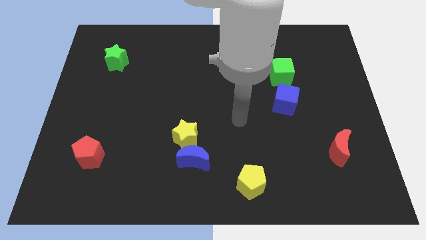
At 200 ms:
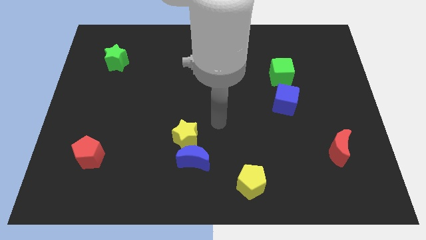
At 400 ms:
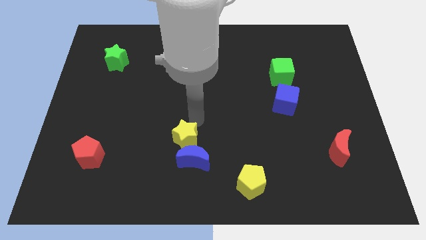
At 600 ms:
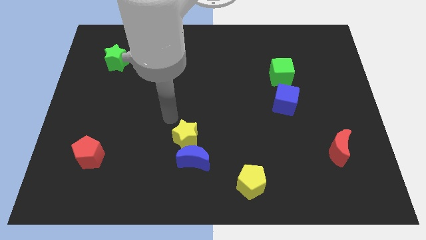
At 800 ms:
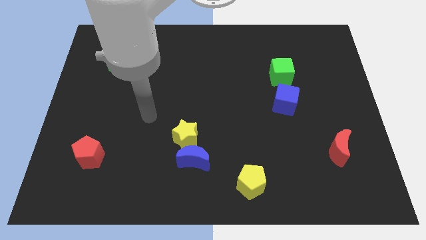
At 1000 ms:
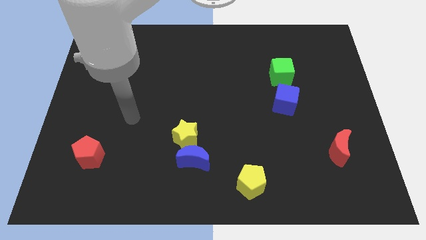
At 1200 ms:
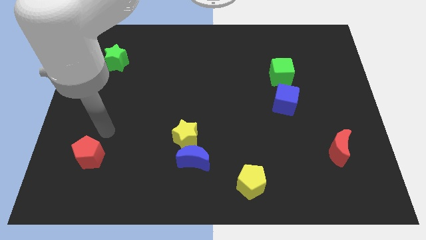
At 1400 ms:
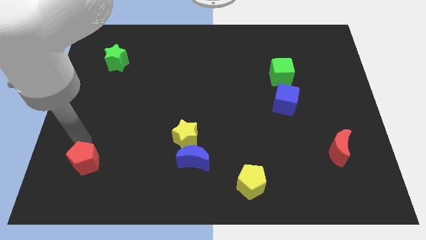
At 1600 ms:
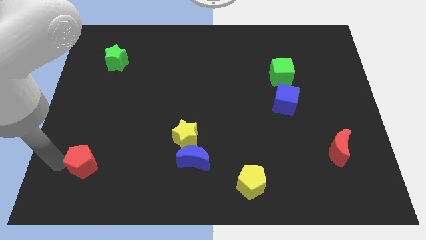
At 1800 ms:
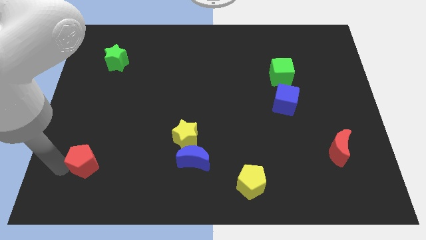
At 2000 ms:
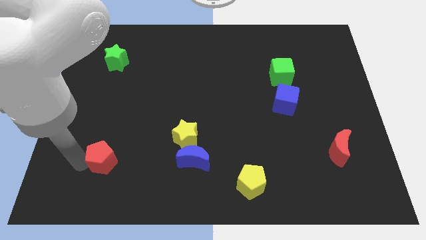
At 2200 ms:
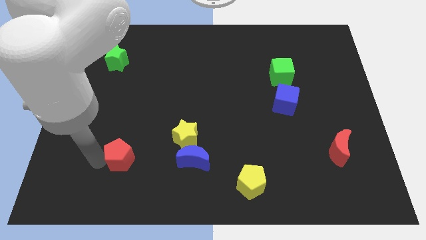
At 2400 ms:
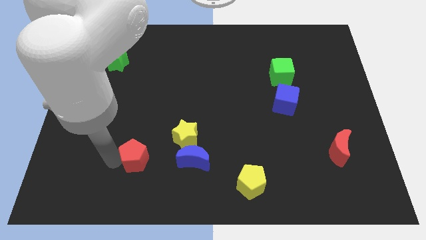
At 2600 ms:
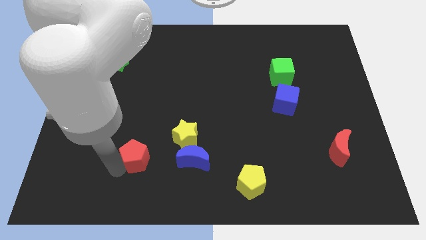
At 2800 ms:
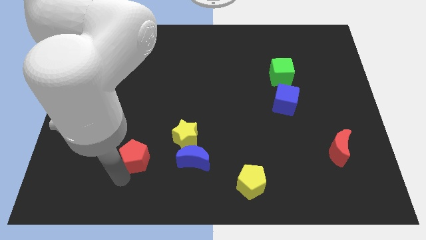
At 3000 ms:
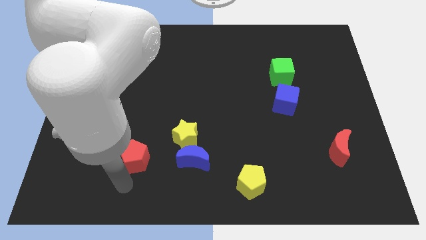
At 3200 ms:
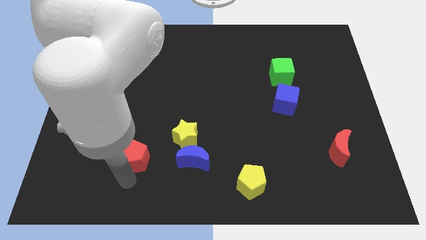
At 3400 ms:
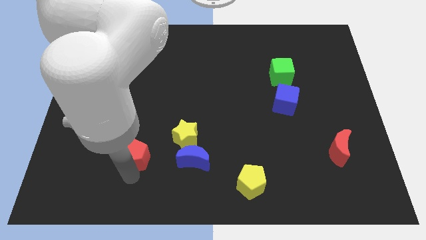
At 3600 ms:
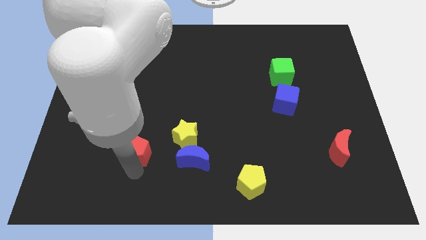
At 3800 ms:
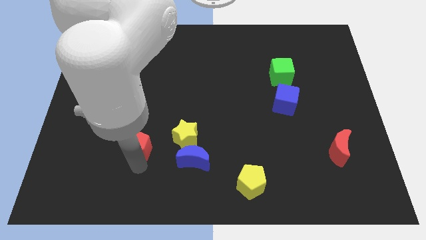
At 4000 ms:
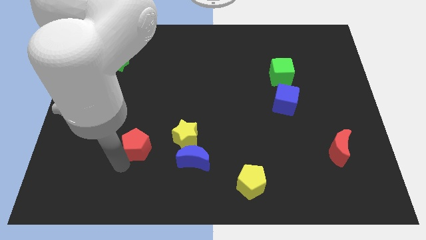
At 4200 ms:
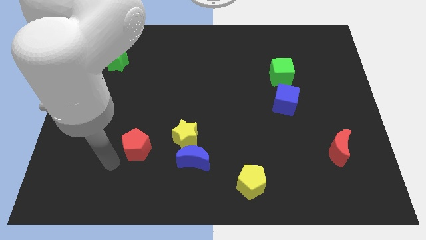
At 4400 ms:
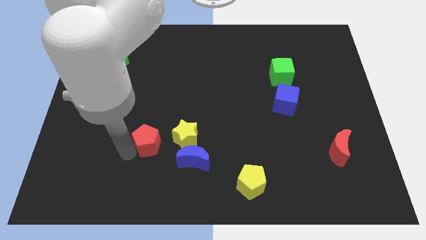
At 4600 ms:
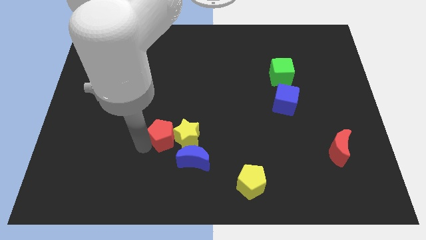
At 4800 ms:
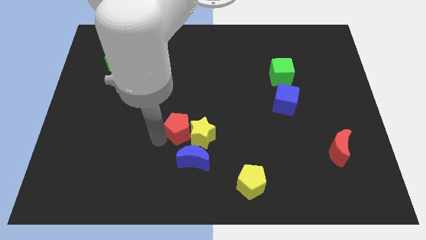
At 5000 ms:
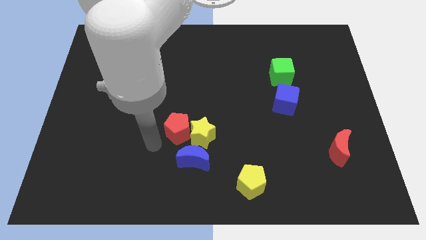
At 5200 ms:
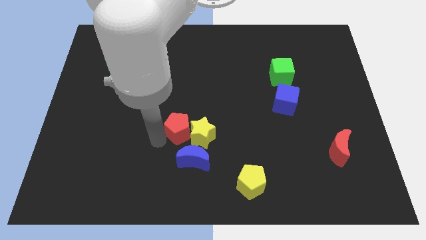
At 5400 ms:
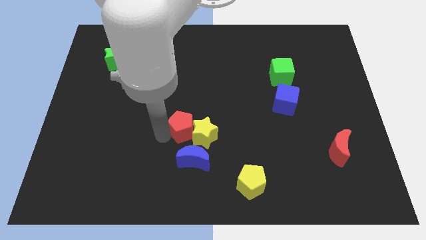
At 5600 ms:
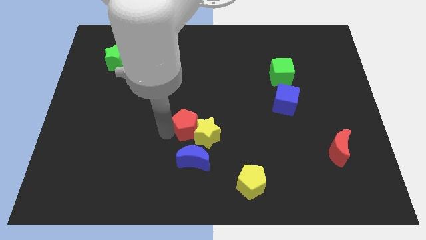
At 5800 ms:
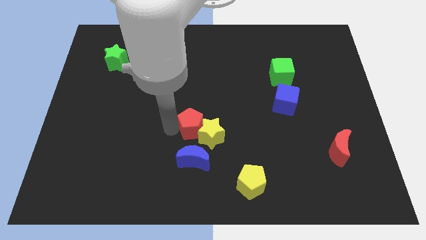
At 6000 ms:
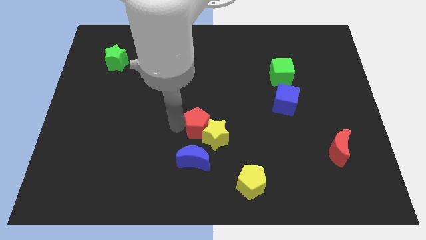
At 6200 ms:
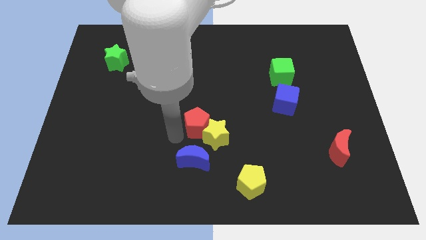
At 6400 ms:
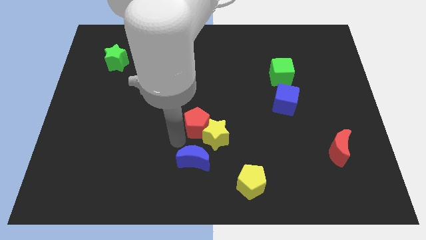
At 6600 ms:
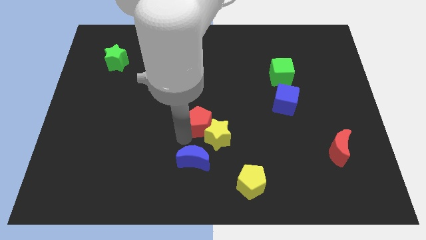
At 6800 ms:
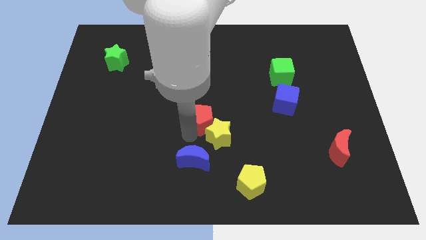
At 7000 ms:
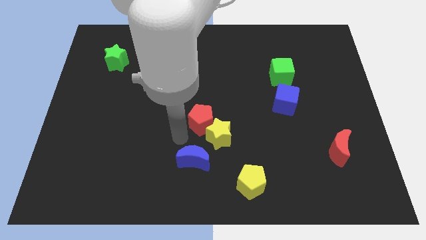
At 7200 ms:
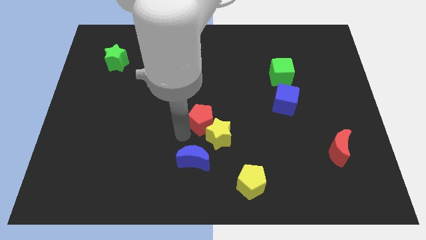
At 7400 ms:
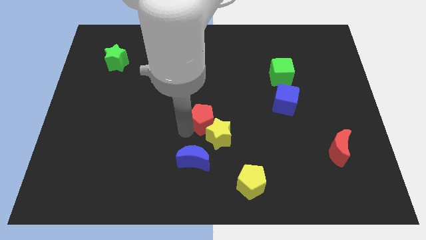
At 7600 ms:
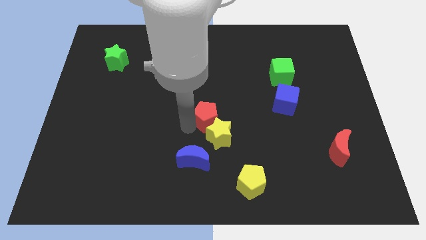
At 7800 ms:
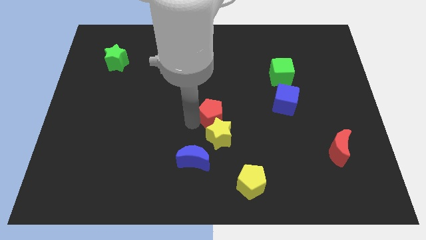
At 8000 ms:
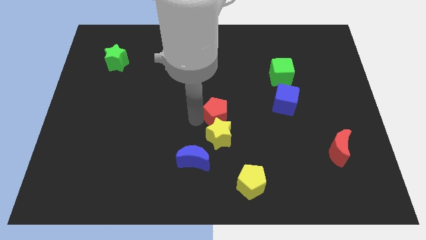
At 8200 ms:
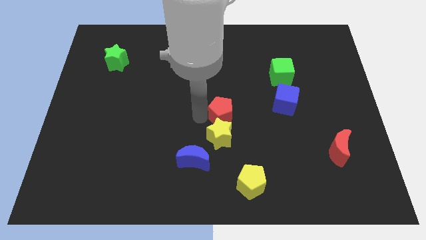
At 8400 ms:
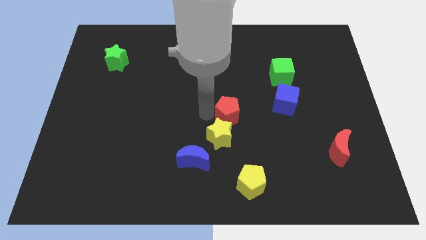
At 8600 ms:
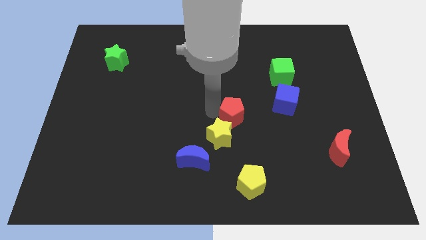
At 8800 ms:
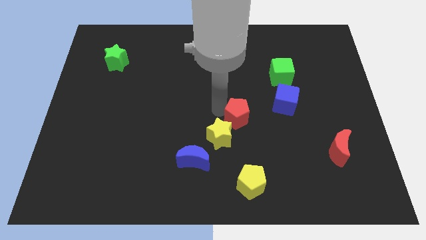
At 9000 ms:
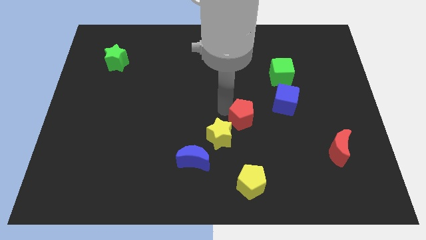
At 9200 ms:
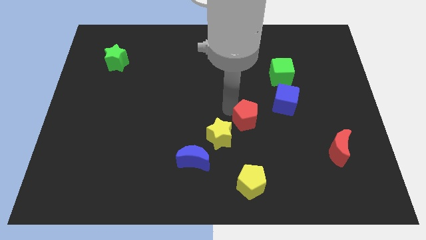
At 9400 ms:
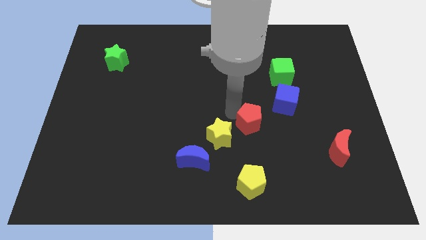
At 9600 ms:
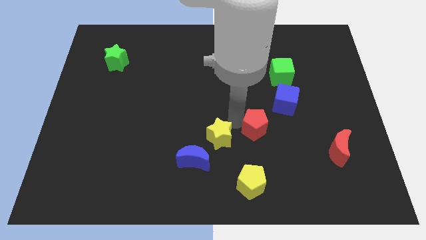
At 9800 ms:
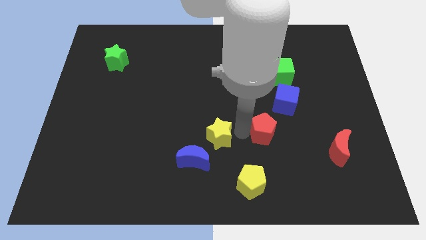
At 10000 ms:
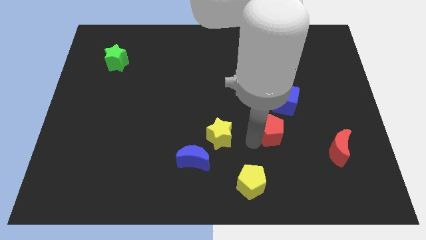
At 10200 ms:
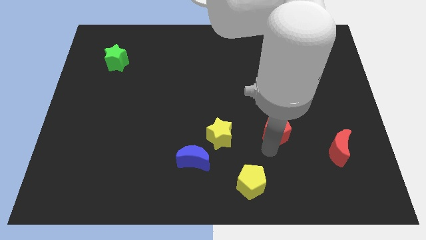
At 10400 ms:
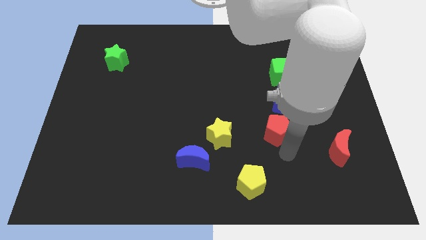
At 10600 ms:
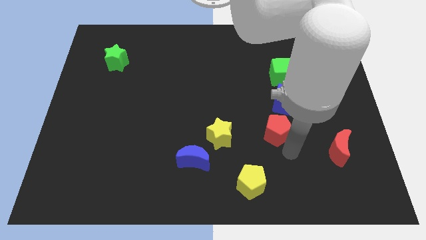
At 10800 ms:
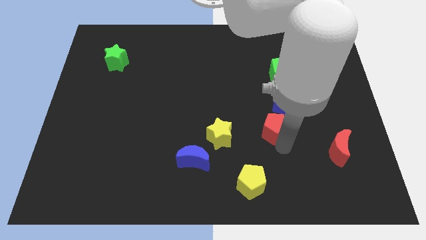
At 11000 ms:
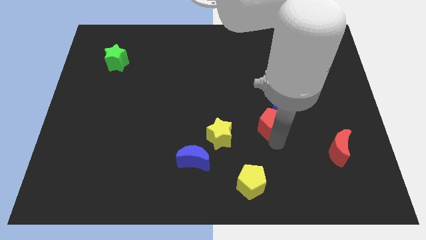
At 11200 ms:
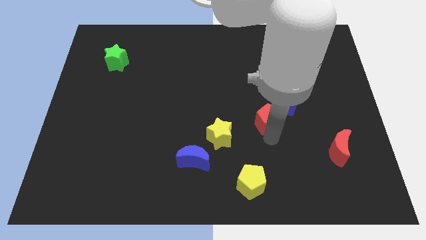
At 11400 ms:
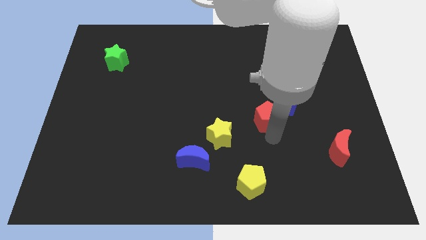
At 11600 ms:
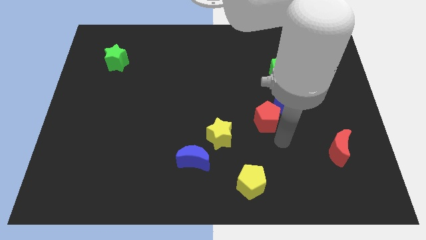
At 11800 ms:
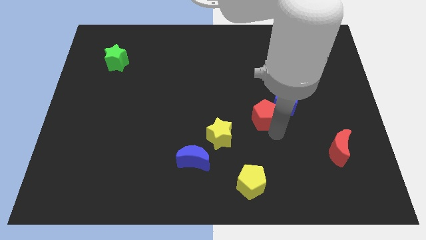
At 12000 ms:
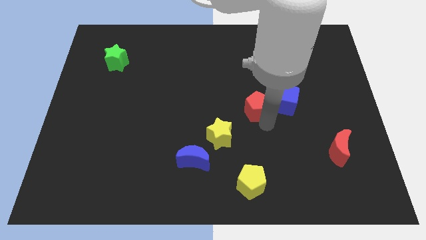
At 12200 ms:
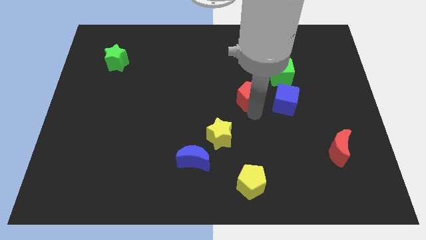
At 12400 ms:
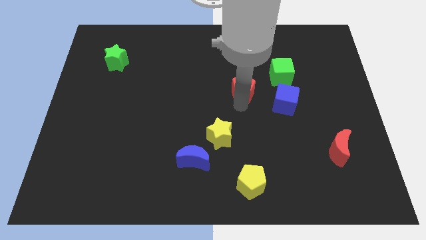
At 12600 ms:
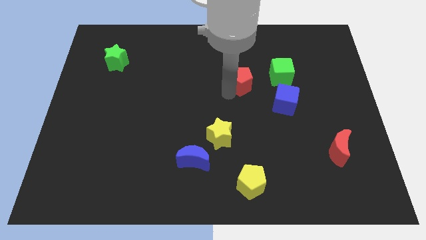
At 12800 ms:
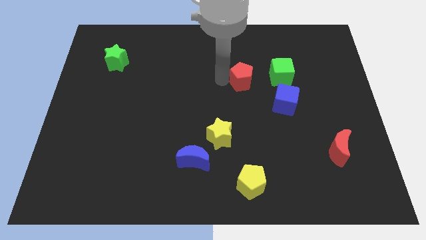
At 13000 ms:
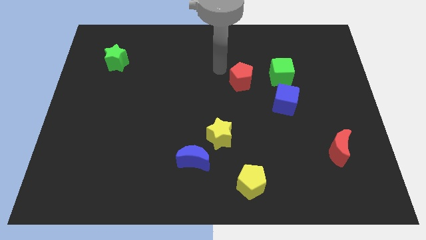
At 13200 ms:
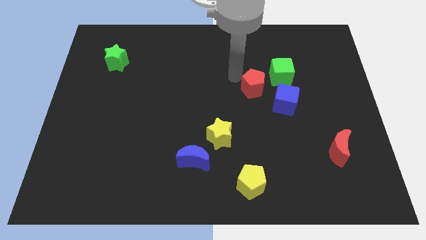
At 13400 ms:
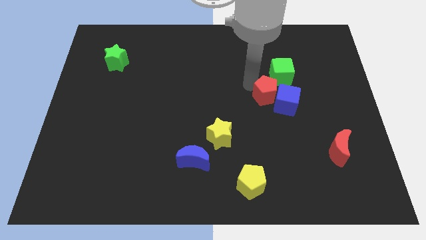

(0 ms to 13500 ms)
slide the red pentagon next to the blue cube

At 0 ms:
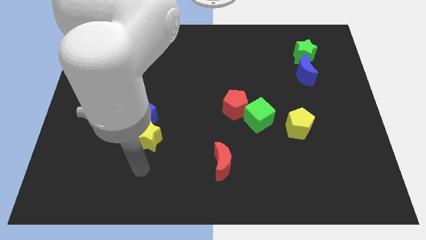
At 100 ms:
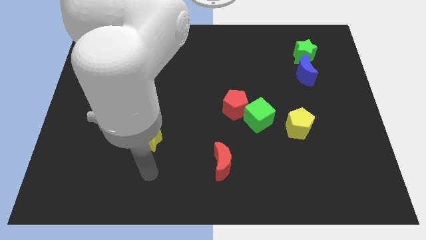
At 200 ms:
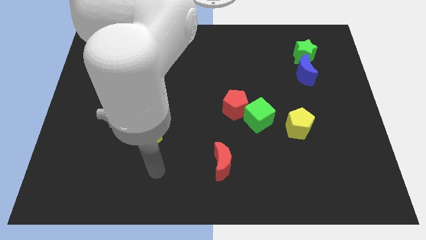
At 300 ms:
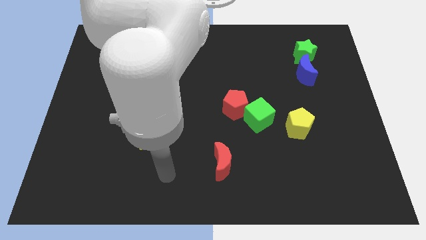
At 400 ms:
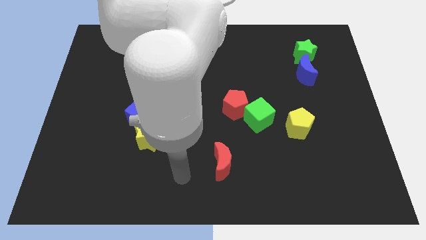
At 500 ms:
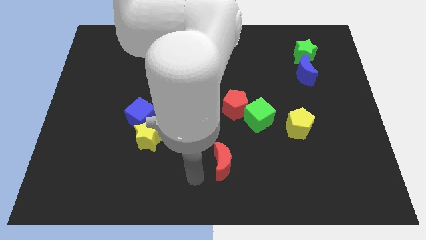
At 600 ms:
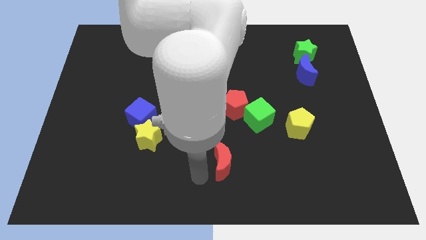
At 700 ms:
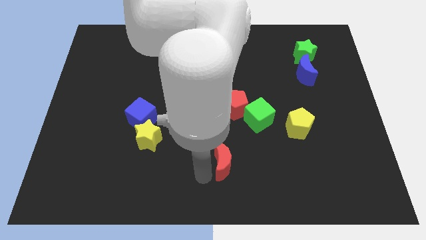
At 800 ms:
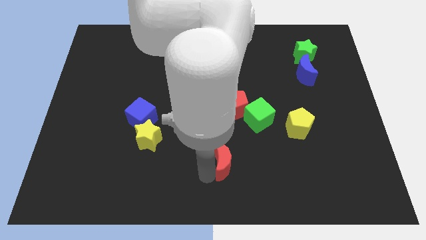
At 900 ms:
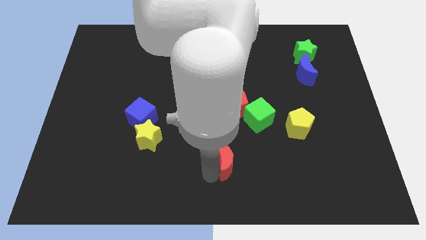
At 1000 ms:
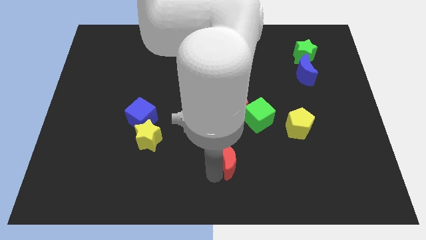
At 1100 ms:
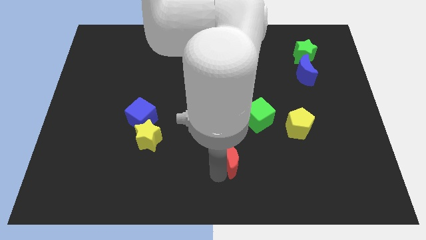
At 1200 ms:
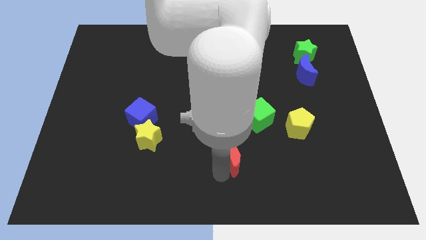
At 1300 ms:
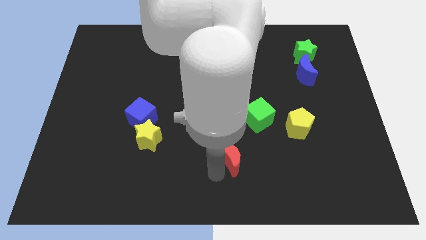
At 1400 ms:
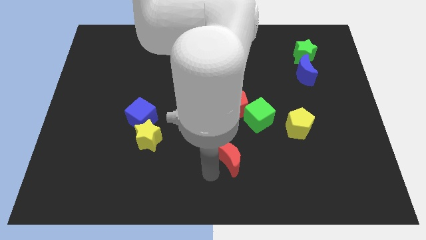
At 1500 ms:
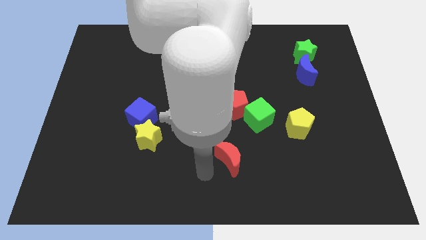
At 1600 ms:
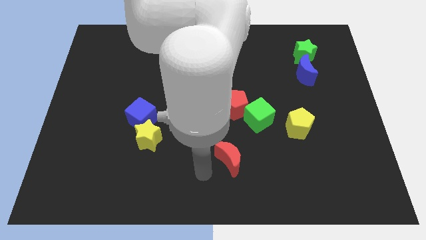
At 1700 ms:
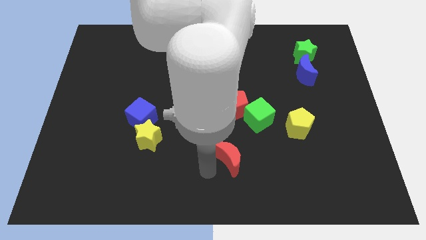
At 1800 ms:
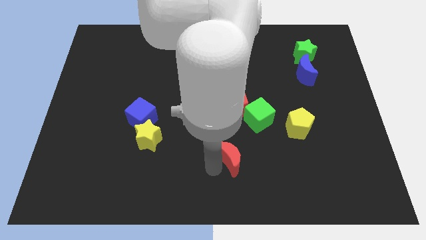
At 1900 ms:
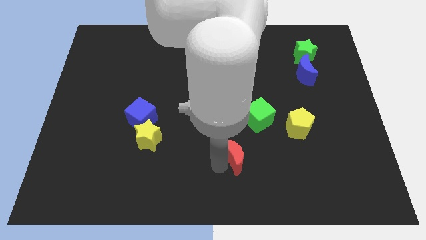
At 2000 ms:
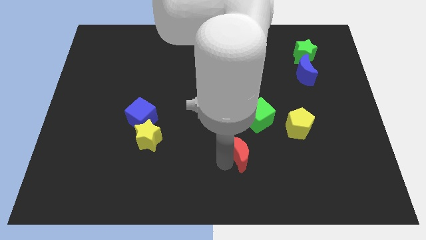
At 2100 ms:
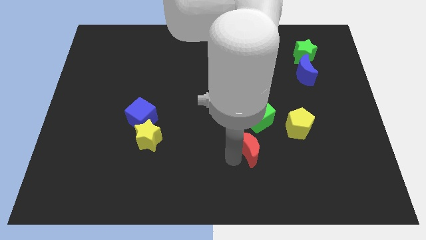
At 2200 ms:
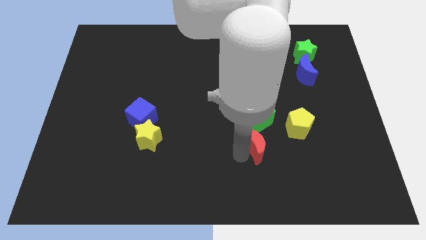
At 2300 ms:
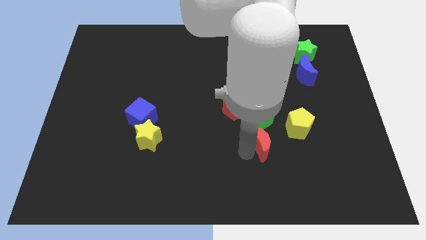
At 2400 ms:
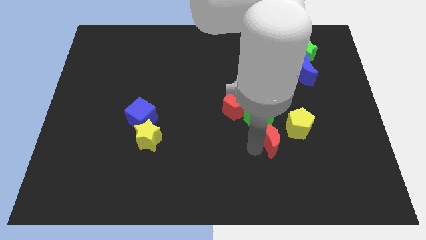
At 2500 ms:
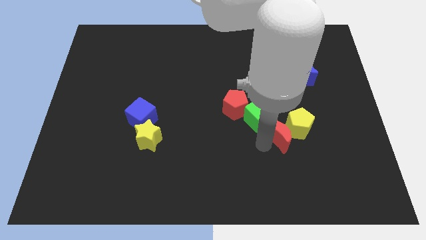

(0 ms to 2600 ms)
slide the red moon to the yellow pentagon
